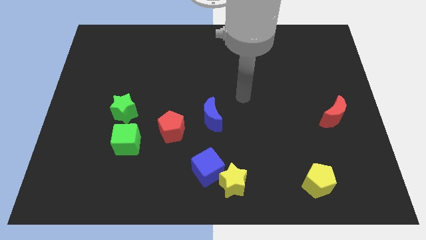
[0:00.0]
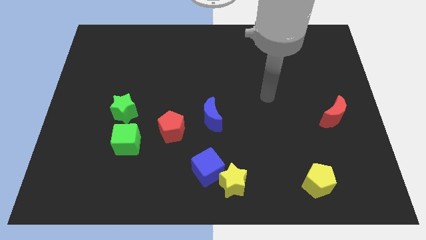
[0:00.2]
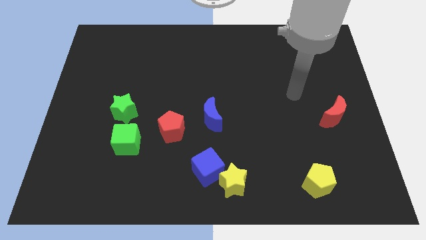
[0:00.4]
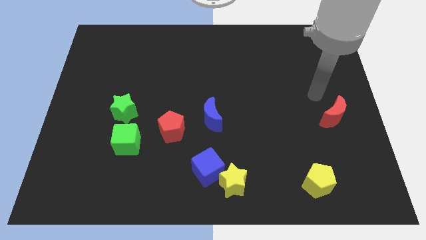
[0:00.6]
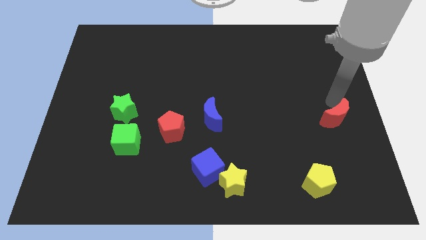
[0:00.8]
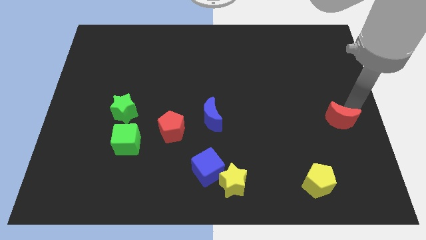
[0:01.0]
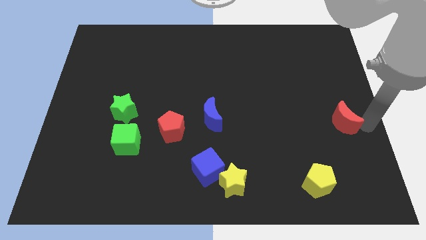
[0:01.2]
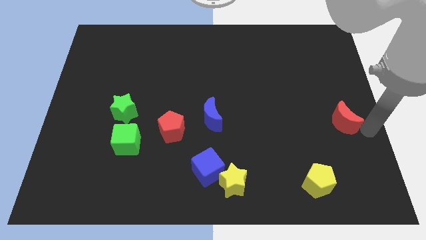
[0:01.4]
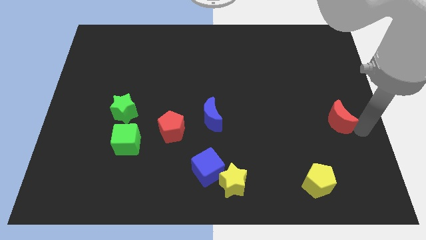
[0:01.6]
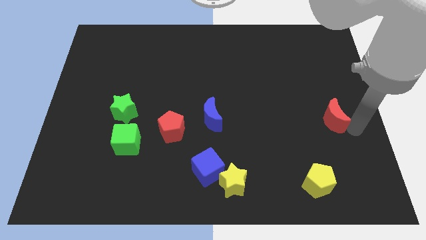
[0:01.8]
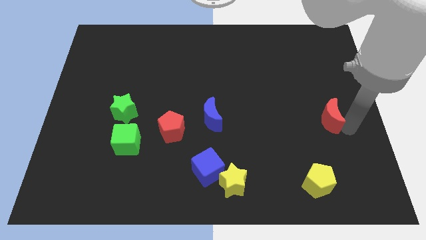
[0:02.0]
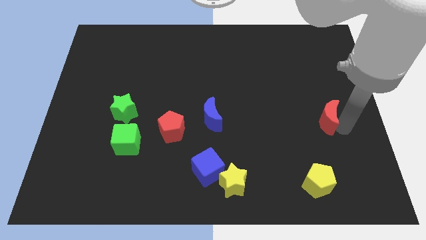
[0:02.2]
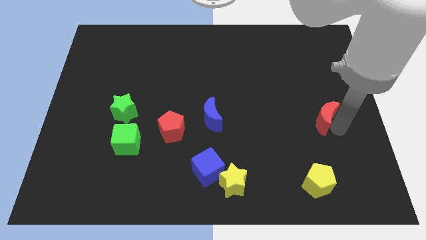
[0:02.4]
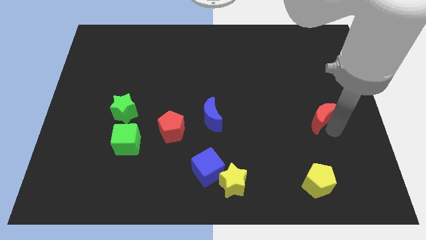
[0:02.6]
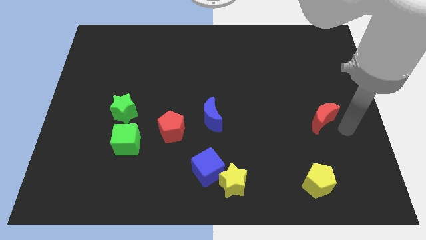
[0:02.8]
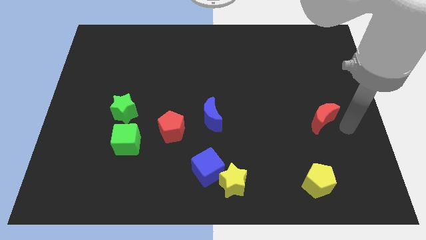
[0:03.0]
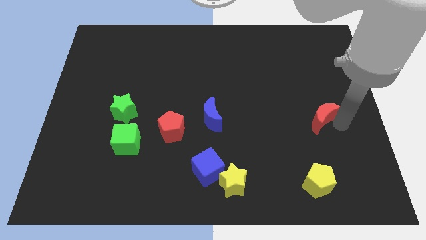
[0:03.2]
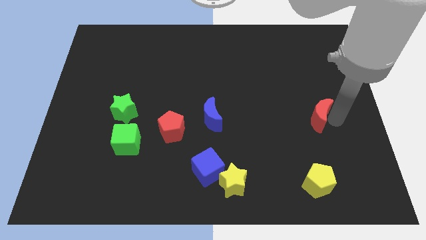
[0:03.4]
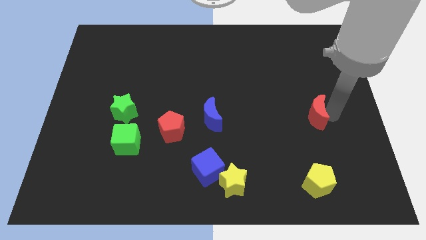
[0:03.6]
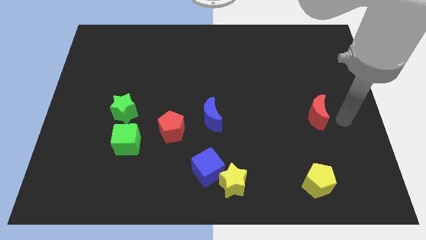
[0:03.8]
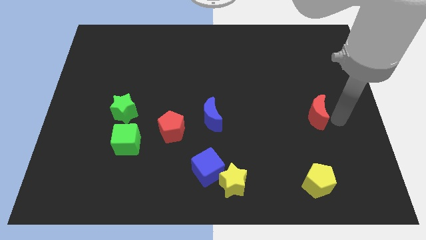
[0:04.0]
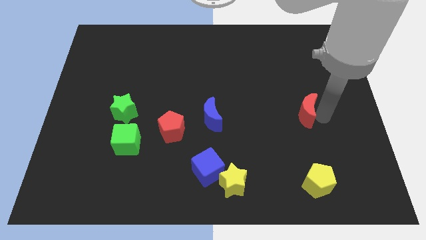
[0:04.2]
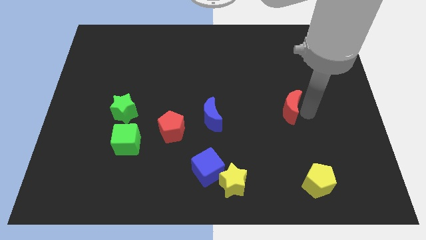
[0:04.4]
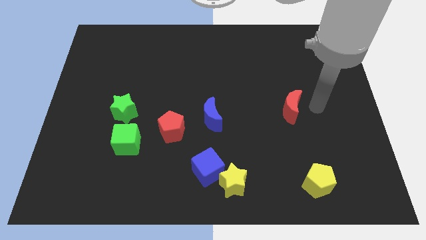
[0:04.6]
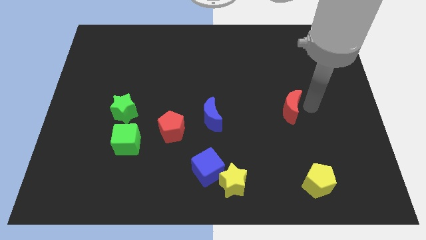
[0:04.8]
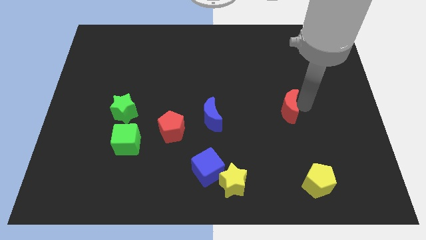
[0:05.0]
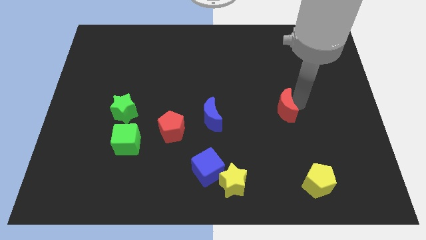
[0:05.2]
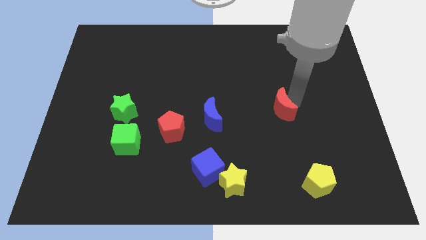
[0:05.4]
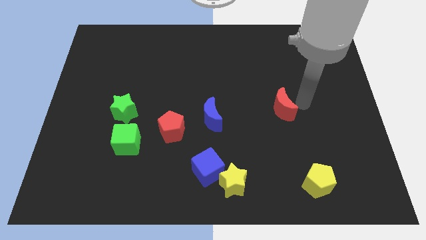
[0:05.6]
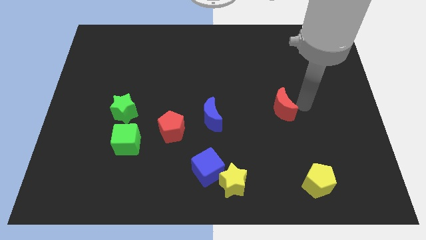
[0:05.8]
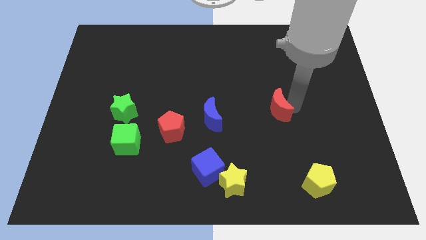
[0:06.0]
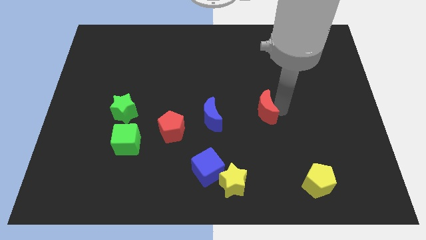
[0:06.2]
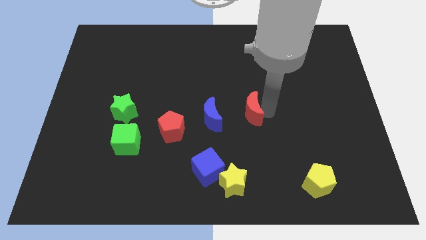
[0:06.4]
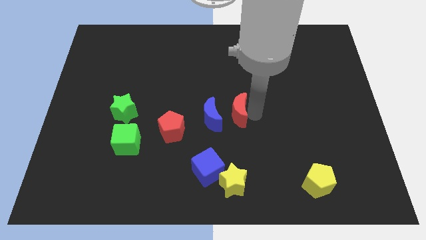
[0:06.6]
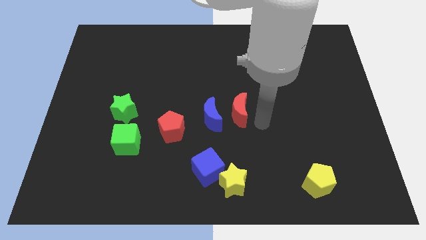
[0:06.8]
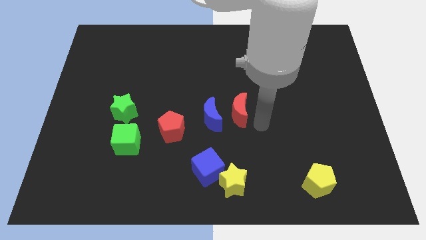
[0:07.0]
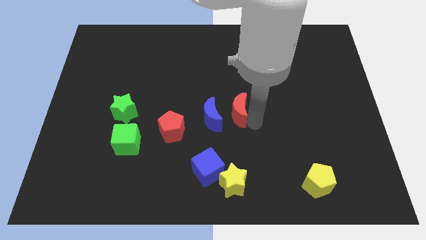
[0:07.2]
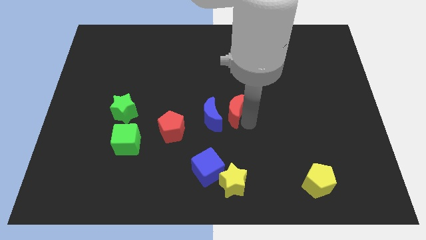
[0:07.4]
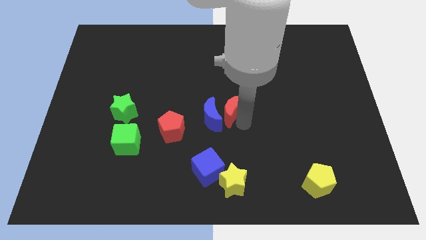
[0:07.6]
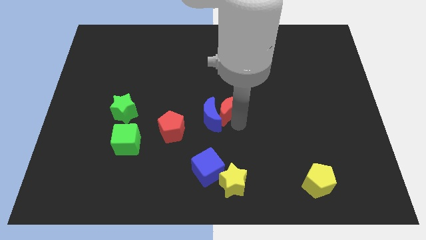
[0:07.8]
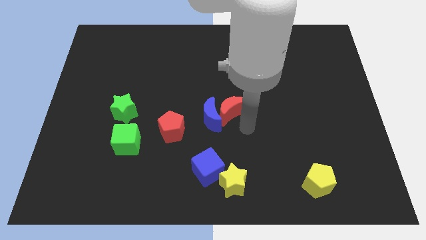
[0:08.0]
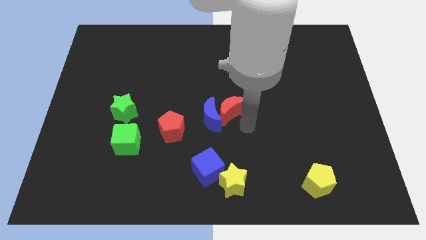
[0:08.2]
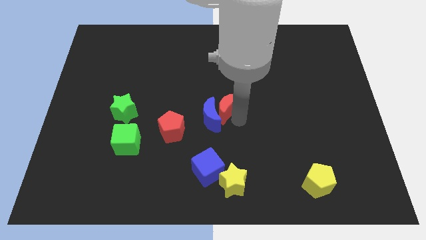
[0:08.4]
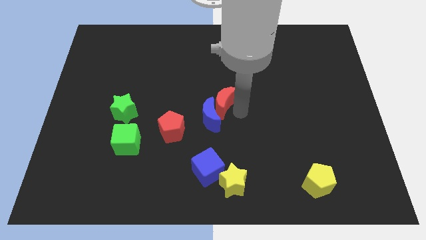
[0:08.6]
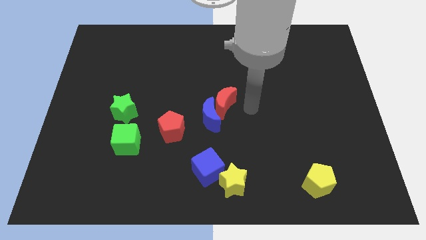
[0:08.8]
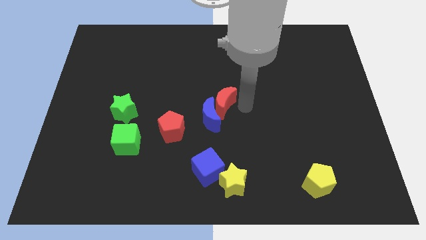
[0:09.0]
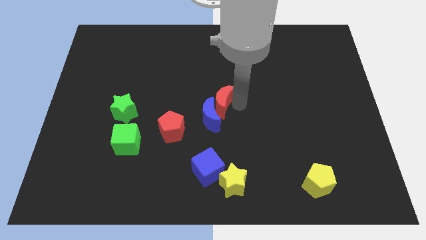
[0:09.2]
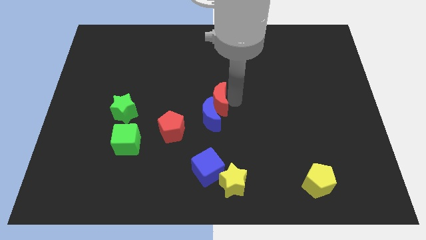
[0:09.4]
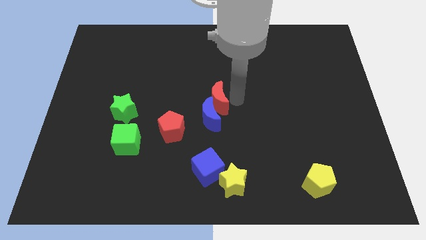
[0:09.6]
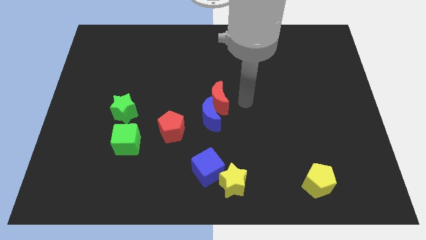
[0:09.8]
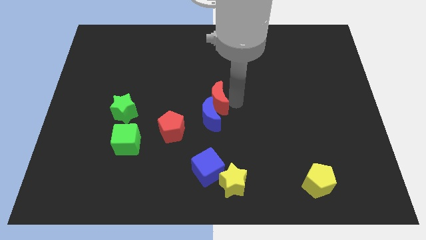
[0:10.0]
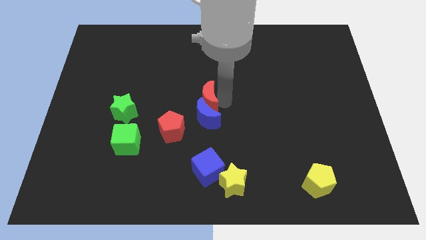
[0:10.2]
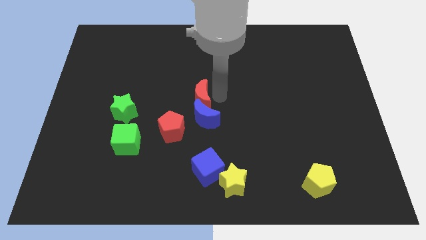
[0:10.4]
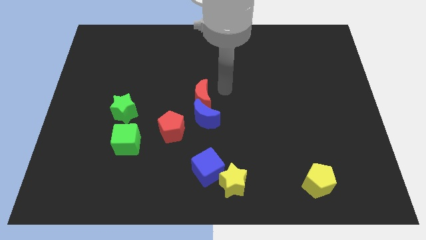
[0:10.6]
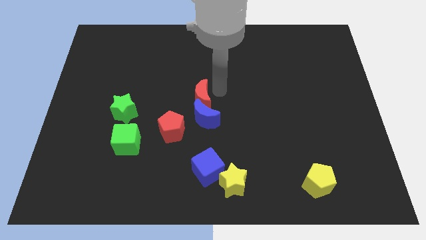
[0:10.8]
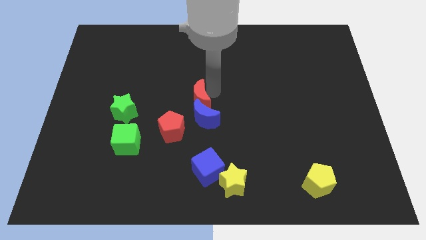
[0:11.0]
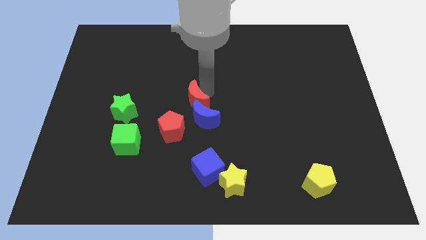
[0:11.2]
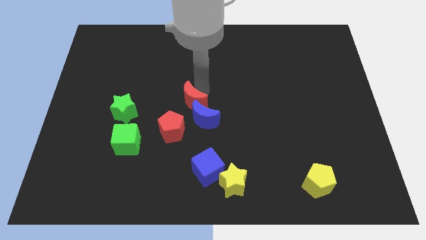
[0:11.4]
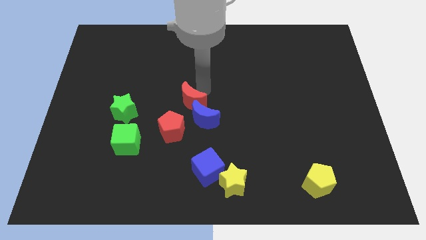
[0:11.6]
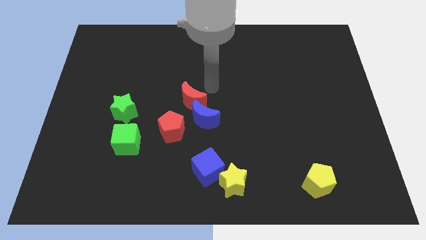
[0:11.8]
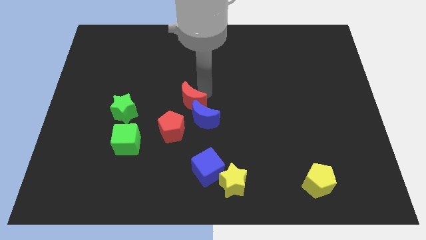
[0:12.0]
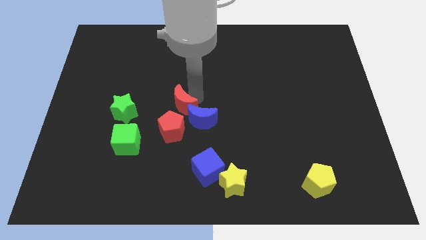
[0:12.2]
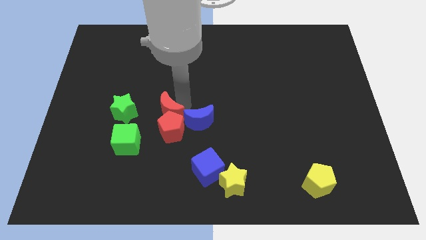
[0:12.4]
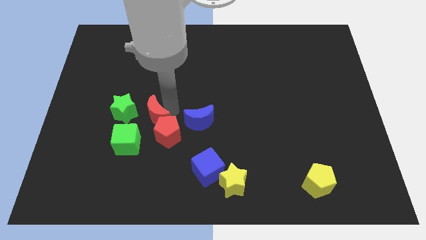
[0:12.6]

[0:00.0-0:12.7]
slide the red moon to the bottom right side of the green star

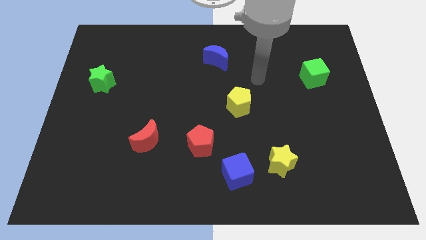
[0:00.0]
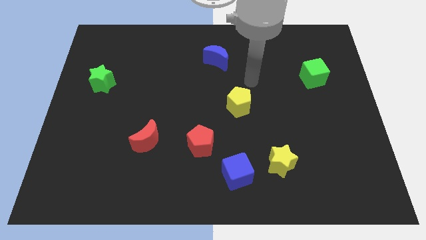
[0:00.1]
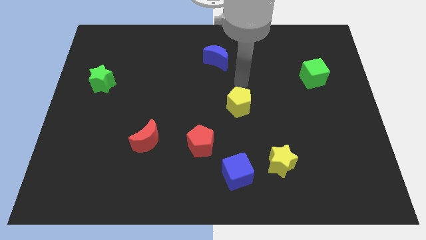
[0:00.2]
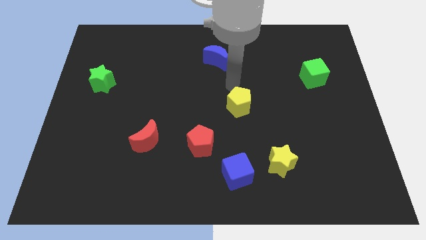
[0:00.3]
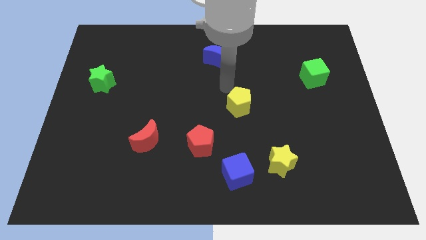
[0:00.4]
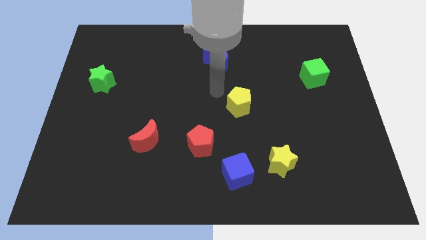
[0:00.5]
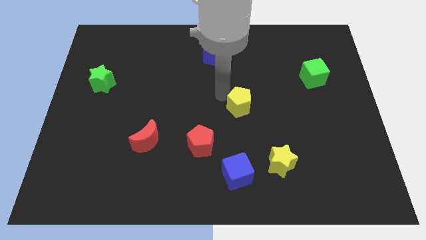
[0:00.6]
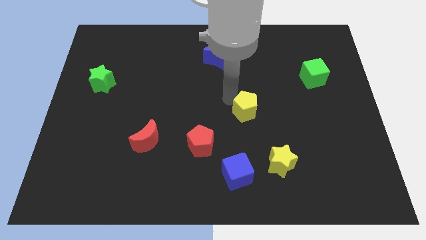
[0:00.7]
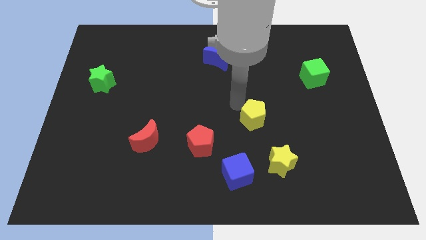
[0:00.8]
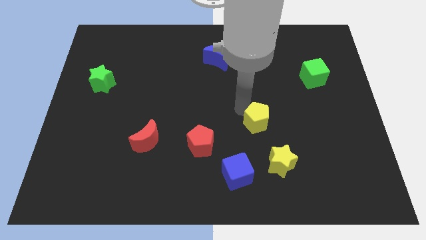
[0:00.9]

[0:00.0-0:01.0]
move the yellow pentagon above the yellow star
